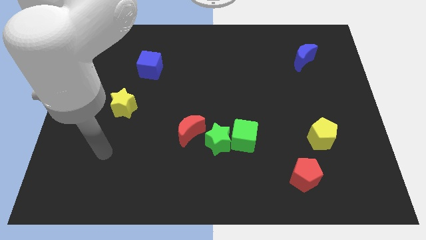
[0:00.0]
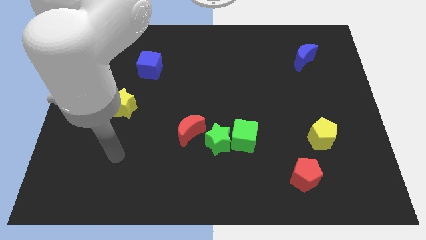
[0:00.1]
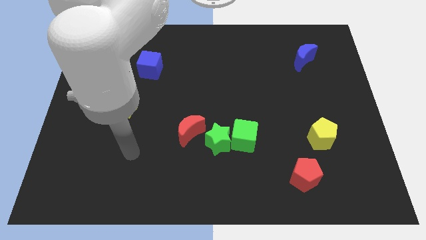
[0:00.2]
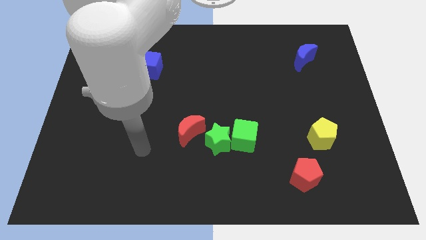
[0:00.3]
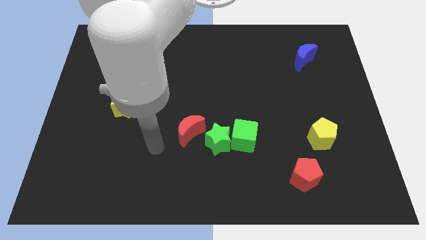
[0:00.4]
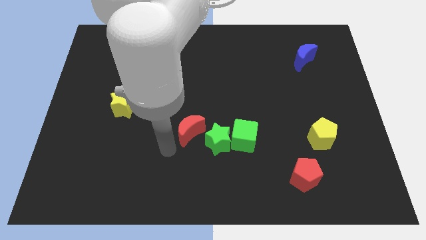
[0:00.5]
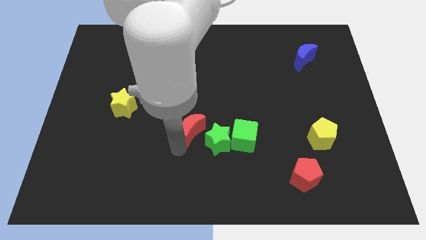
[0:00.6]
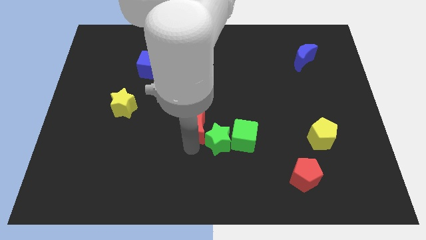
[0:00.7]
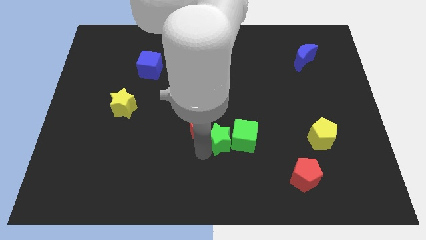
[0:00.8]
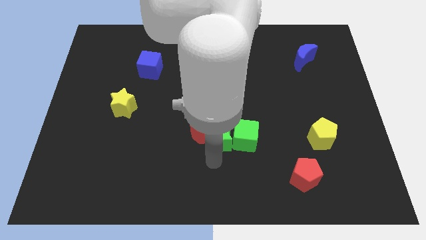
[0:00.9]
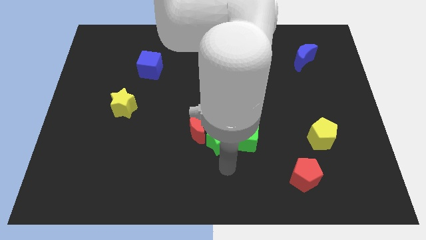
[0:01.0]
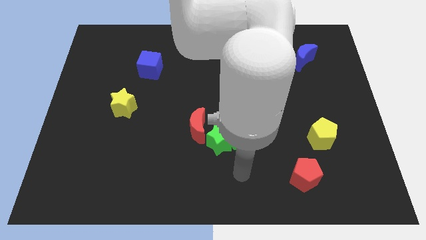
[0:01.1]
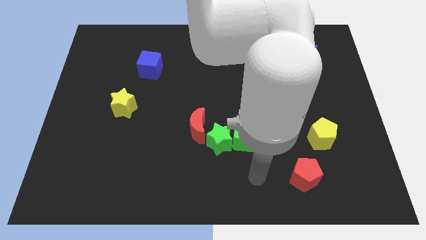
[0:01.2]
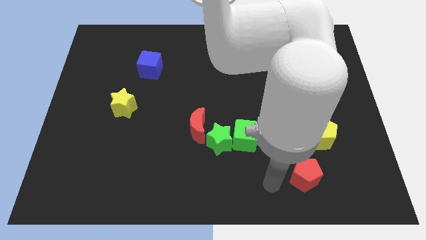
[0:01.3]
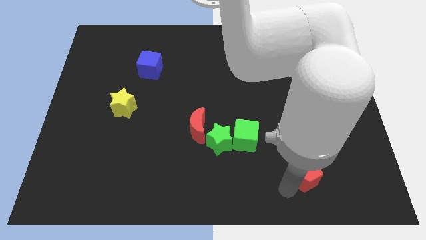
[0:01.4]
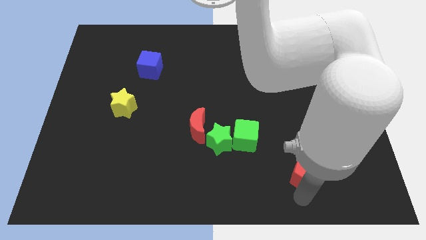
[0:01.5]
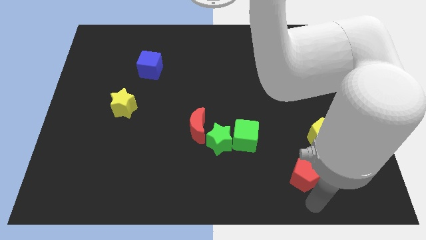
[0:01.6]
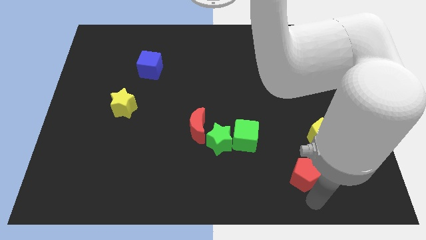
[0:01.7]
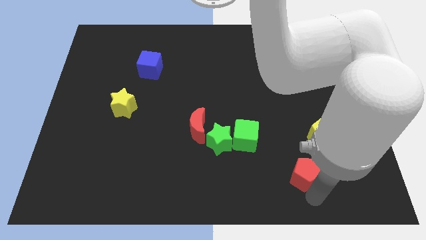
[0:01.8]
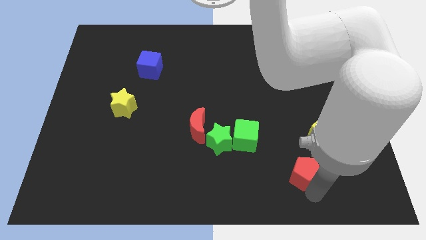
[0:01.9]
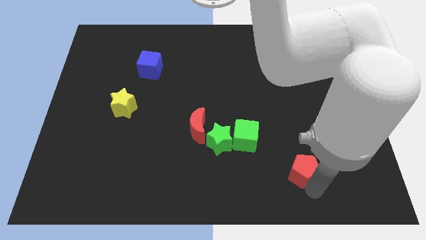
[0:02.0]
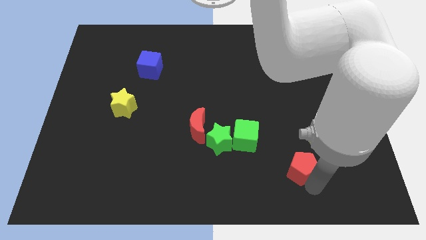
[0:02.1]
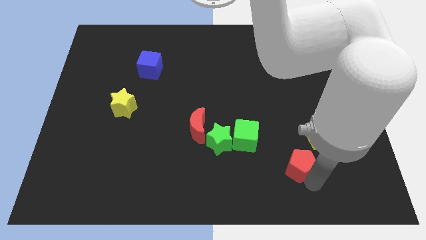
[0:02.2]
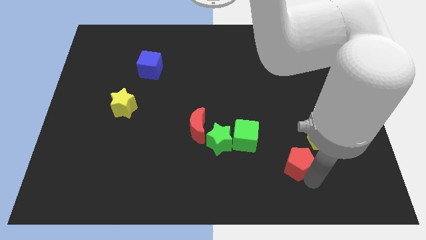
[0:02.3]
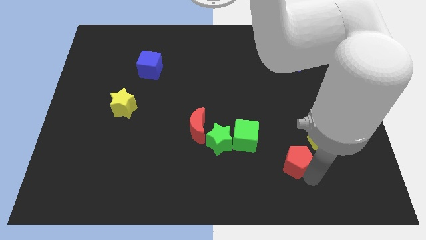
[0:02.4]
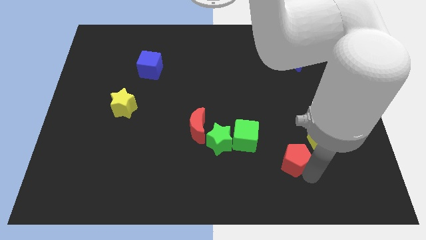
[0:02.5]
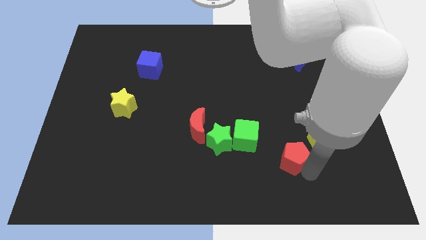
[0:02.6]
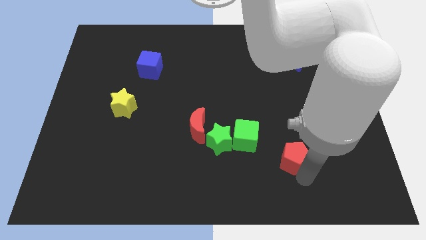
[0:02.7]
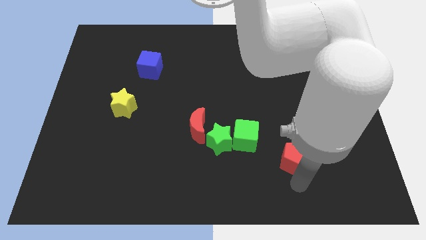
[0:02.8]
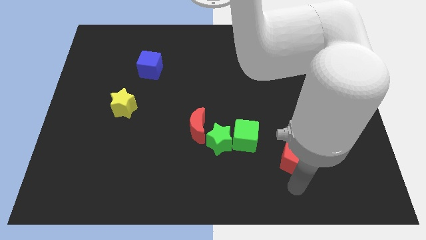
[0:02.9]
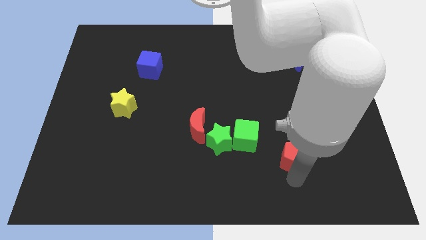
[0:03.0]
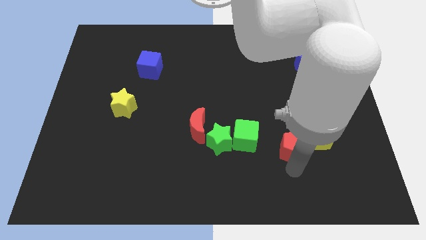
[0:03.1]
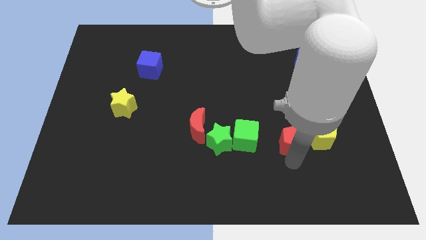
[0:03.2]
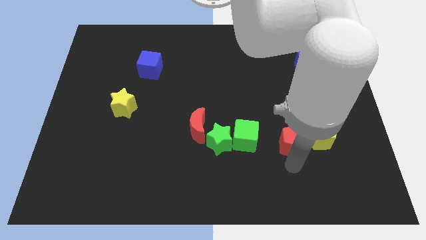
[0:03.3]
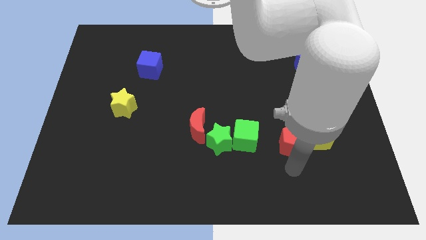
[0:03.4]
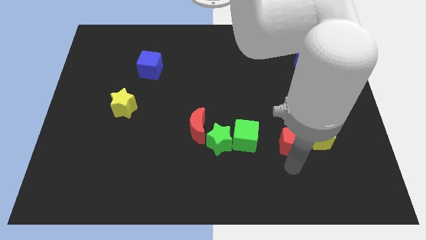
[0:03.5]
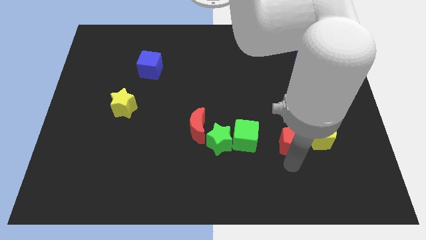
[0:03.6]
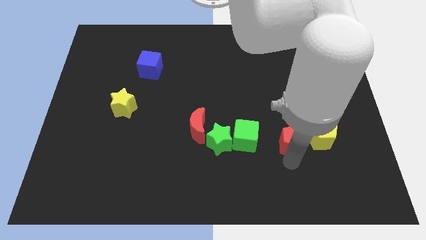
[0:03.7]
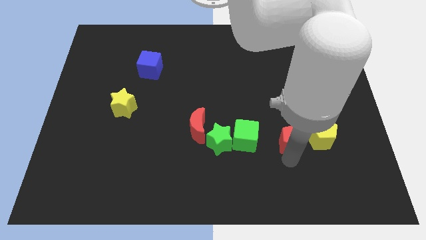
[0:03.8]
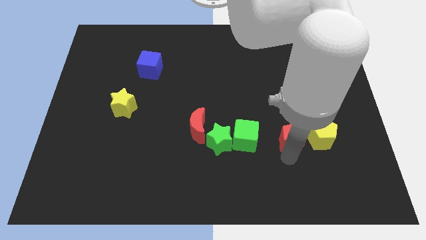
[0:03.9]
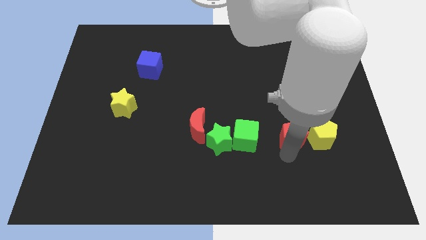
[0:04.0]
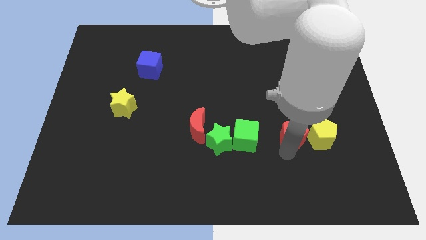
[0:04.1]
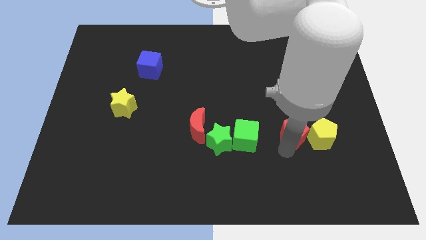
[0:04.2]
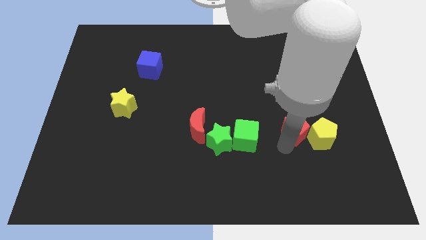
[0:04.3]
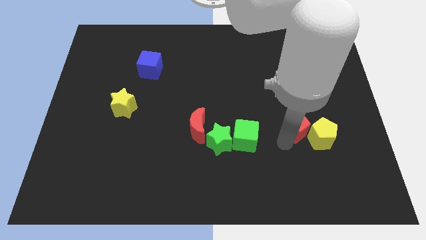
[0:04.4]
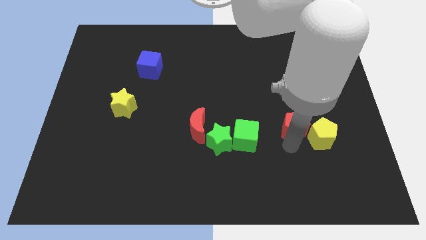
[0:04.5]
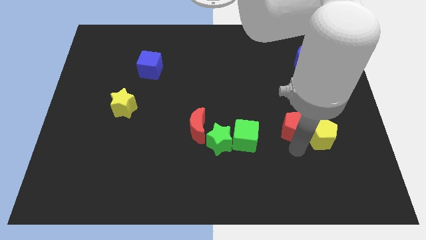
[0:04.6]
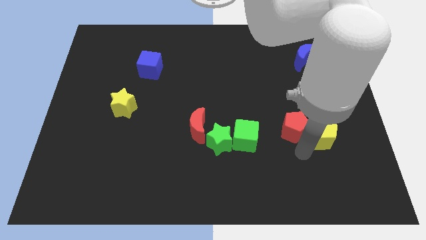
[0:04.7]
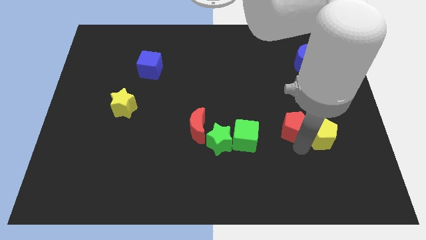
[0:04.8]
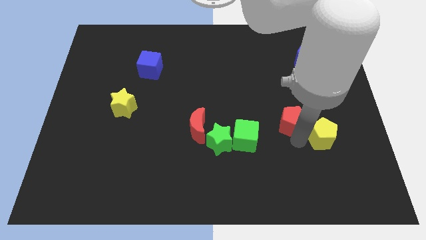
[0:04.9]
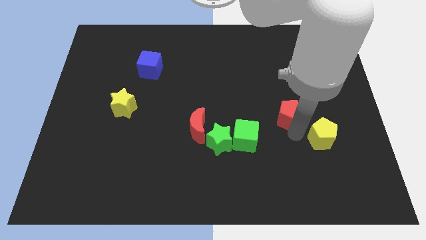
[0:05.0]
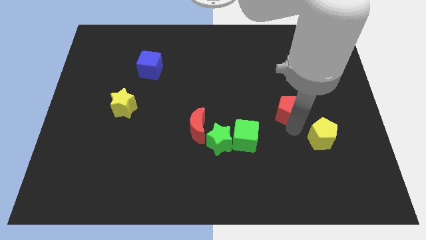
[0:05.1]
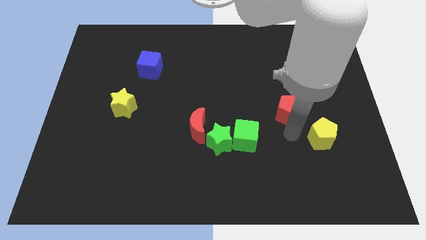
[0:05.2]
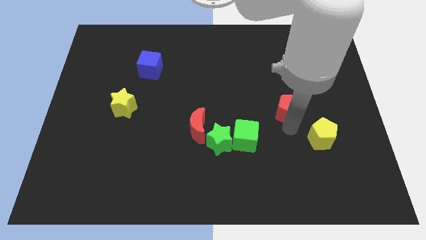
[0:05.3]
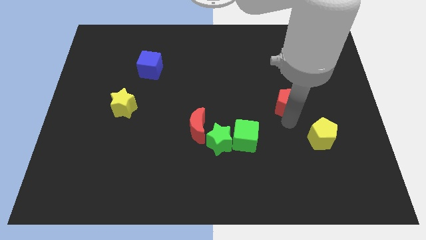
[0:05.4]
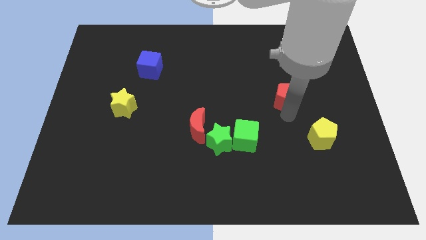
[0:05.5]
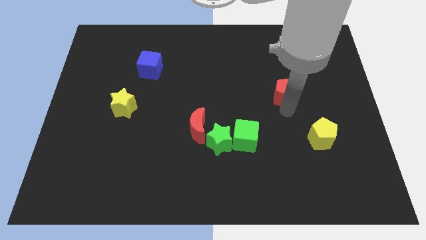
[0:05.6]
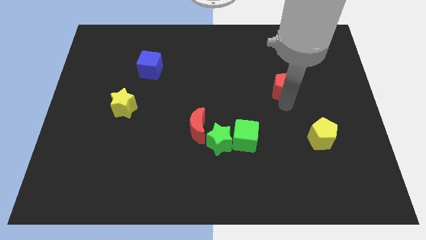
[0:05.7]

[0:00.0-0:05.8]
push the red pentagon diagonally down and to the left of the blue moon

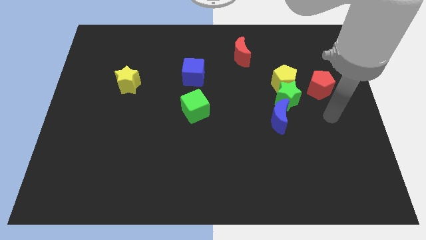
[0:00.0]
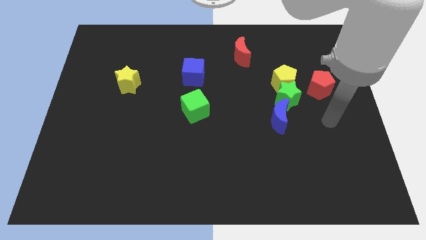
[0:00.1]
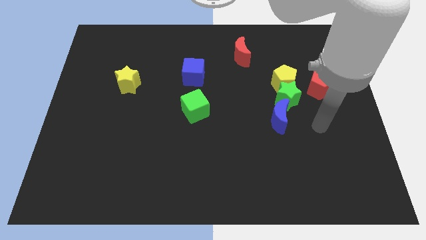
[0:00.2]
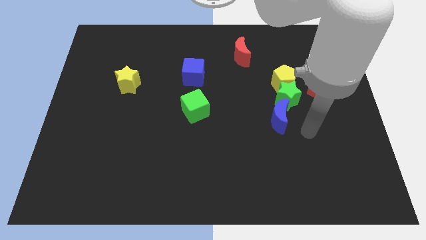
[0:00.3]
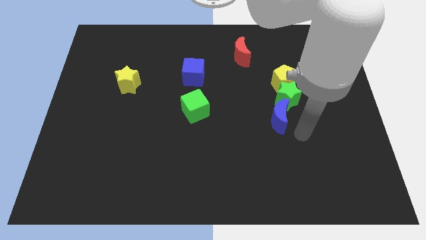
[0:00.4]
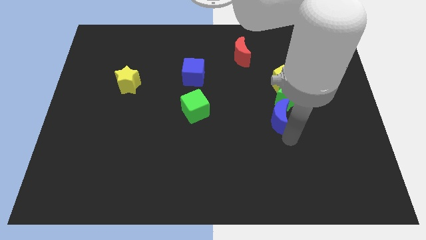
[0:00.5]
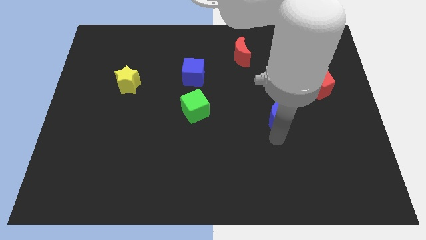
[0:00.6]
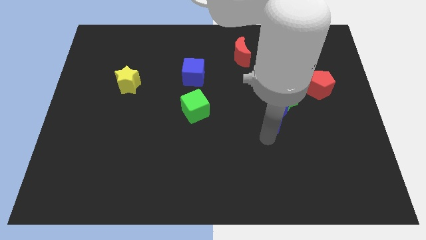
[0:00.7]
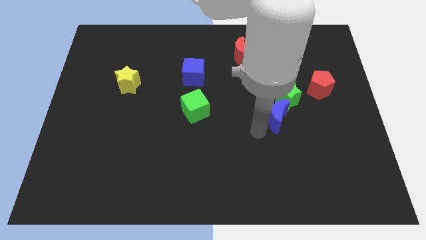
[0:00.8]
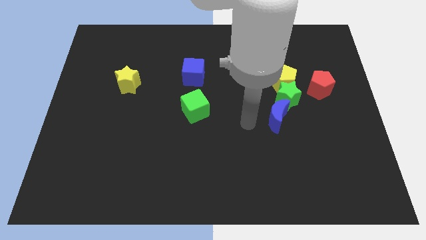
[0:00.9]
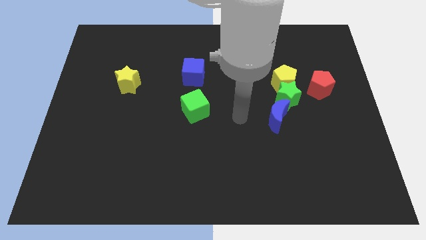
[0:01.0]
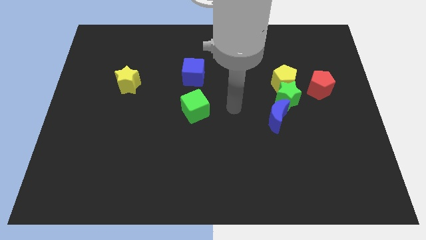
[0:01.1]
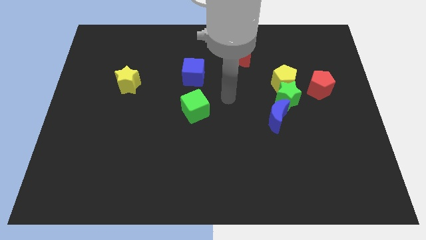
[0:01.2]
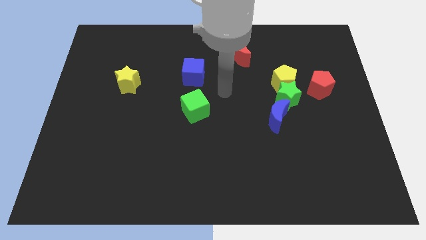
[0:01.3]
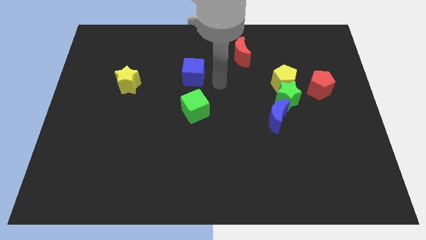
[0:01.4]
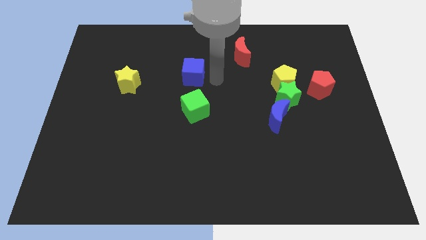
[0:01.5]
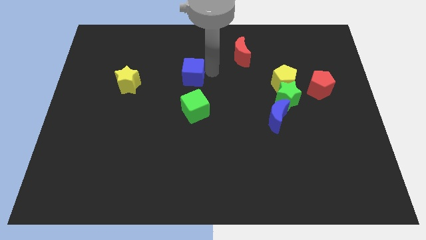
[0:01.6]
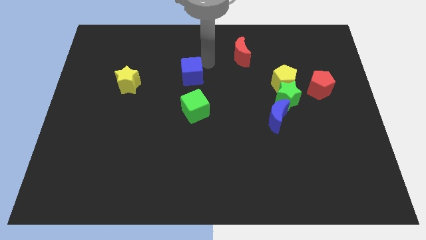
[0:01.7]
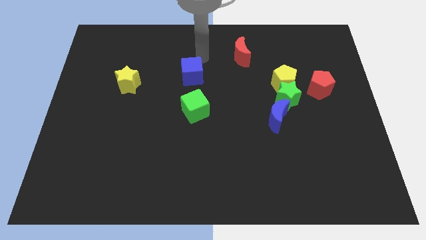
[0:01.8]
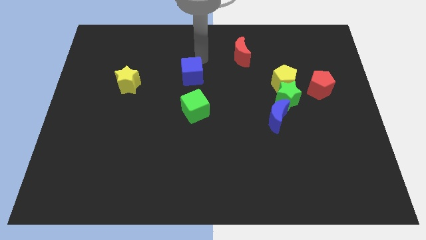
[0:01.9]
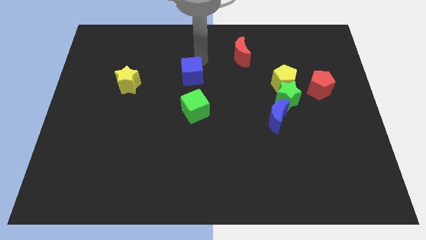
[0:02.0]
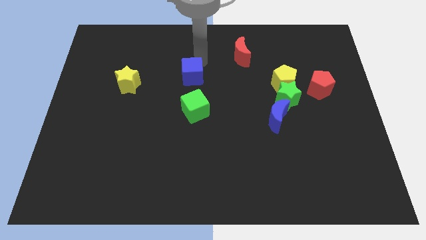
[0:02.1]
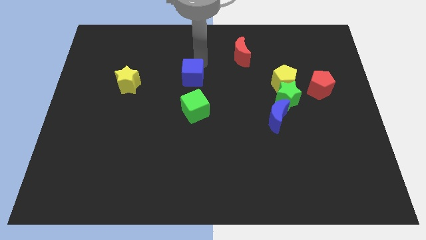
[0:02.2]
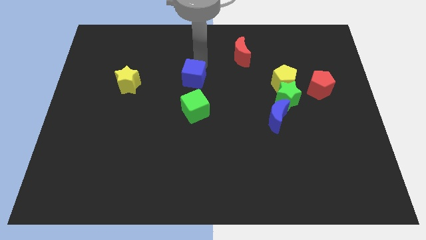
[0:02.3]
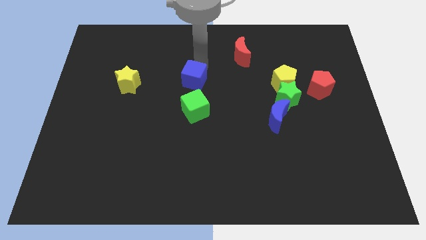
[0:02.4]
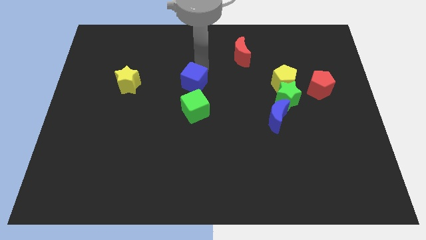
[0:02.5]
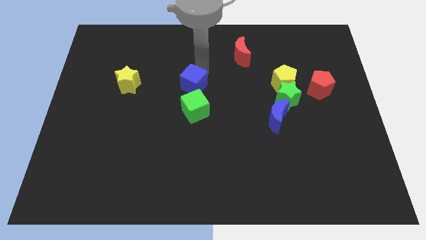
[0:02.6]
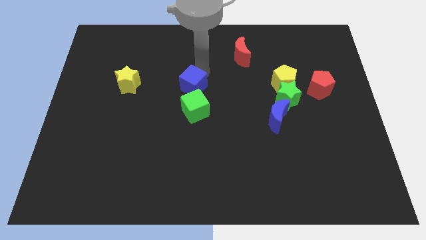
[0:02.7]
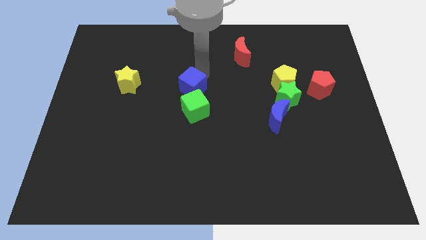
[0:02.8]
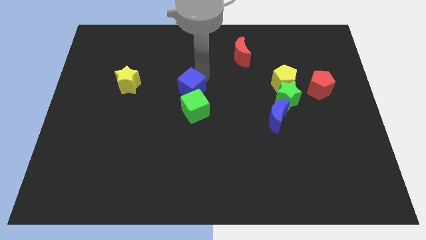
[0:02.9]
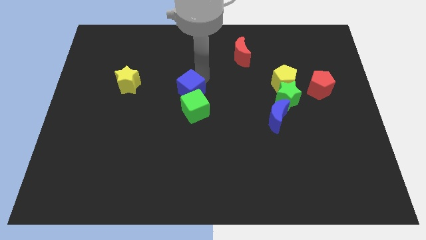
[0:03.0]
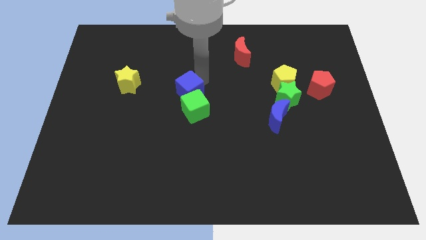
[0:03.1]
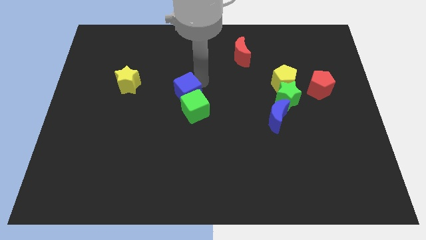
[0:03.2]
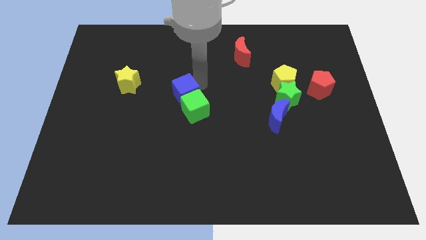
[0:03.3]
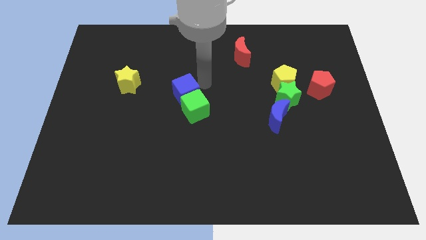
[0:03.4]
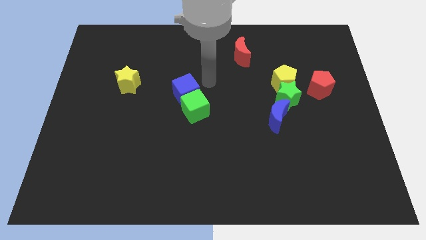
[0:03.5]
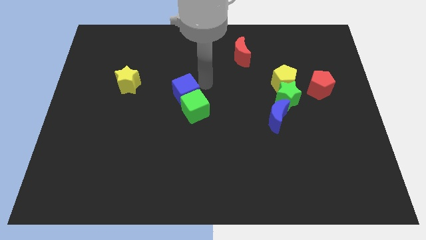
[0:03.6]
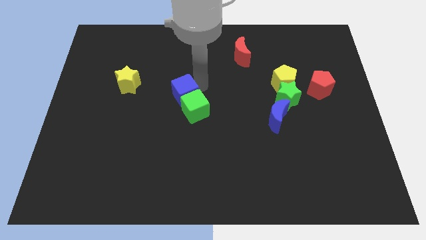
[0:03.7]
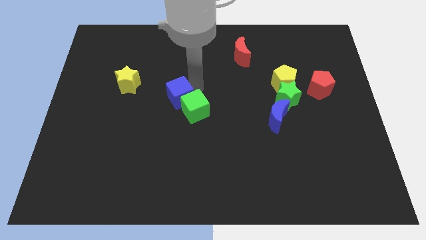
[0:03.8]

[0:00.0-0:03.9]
put the blue cube just left of the green cube
